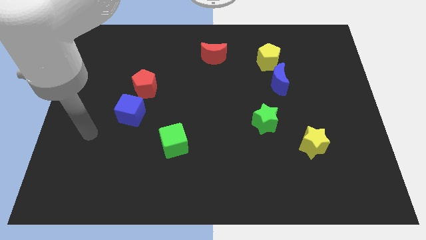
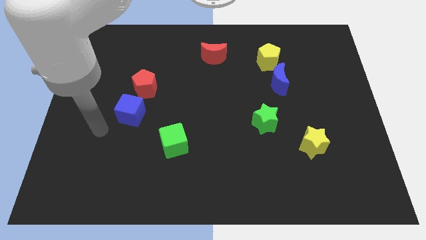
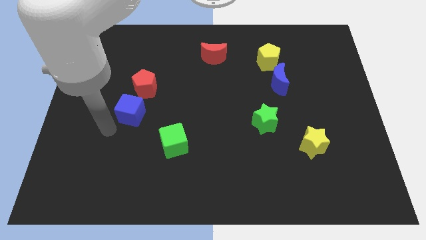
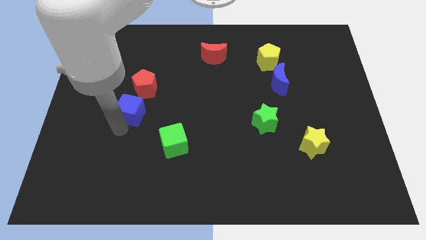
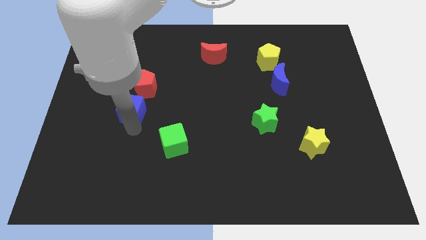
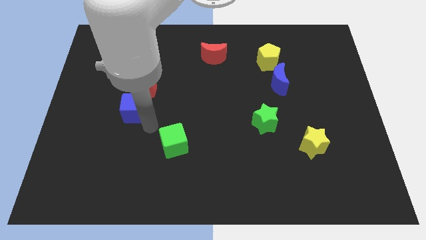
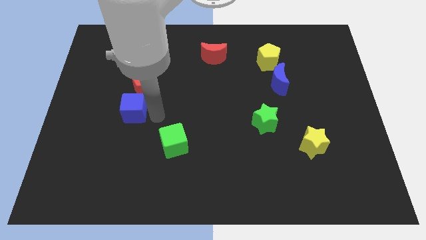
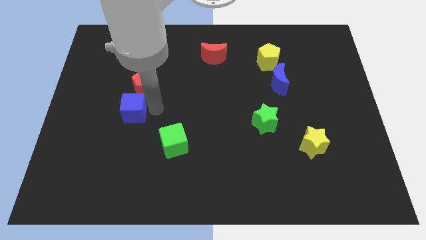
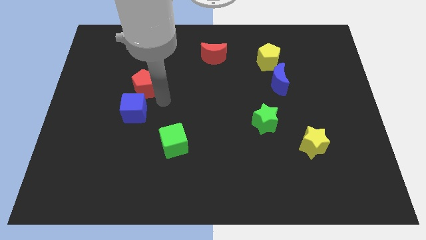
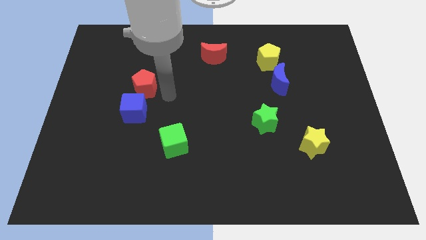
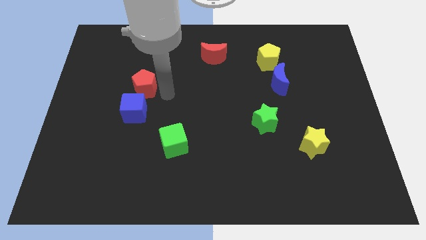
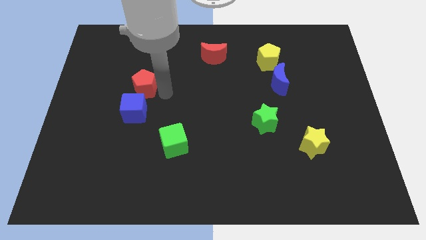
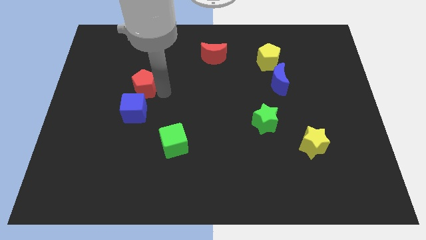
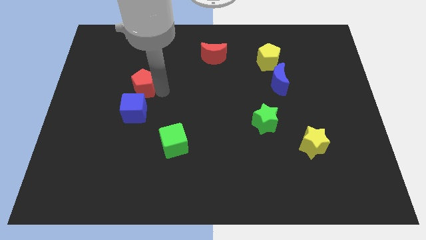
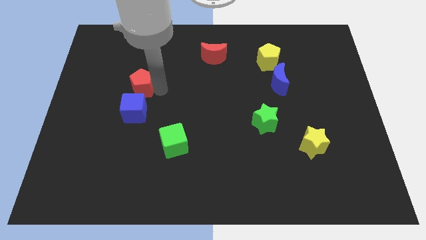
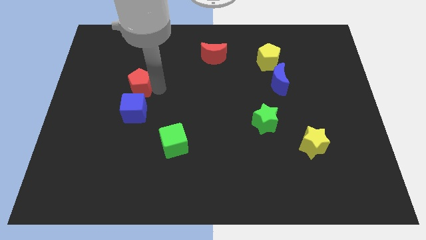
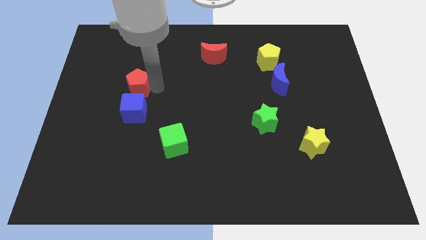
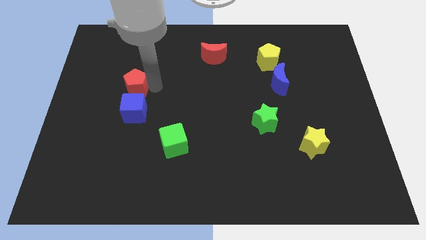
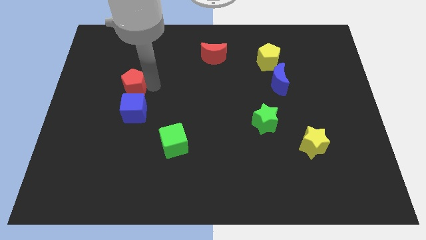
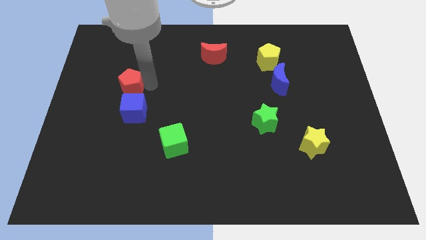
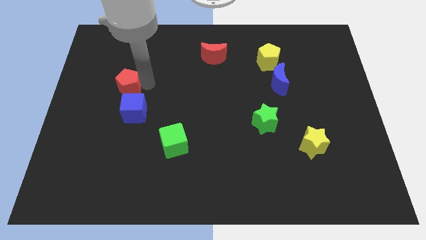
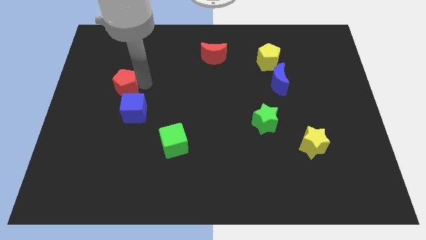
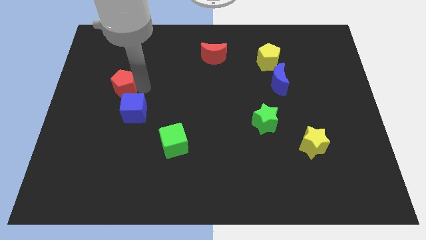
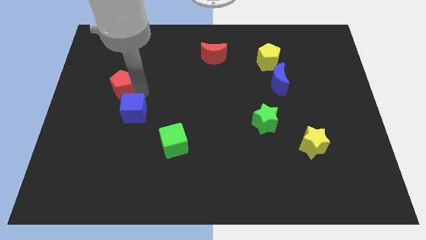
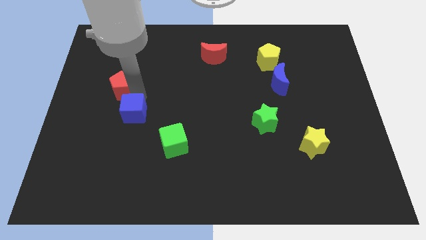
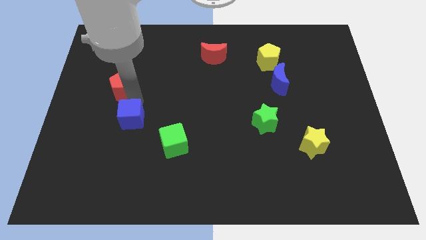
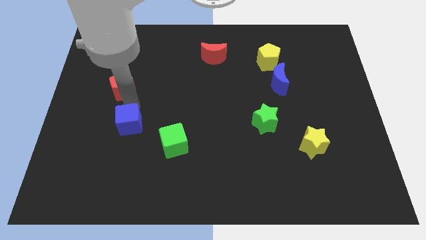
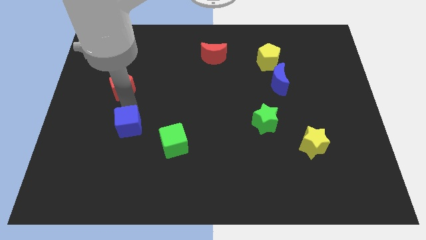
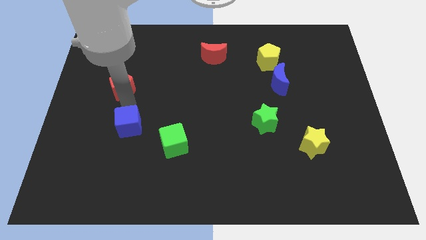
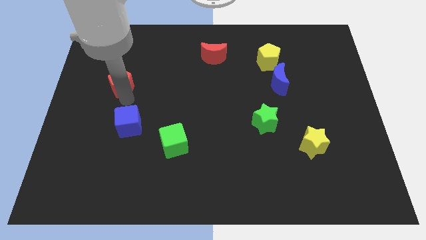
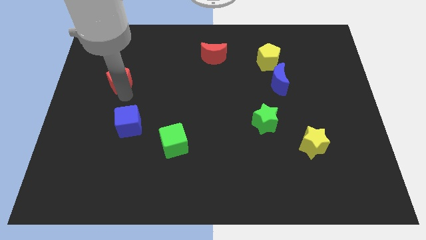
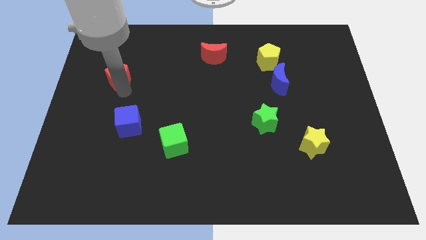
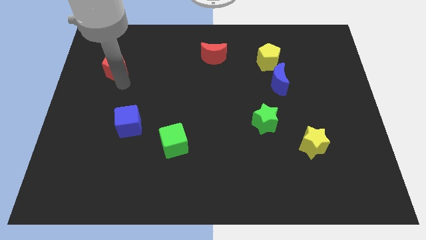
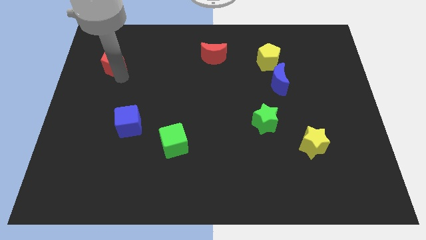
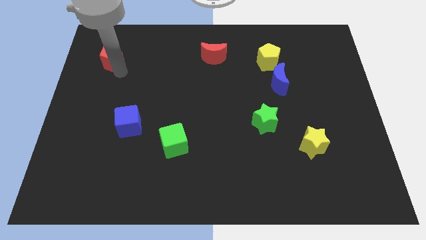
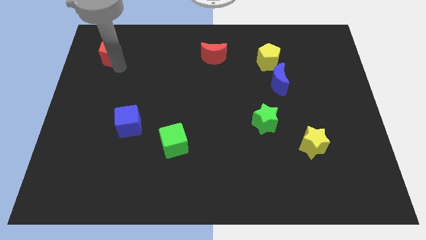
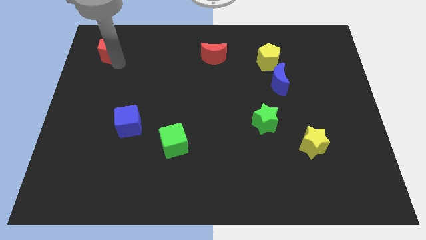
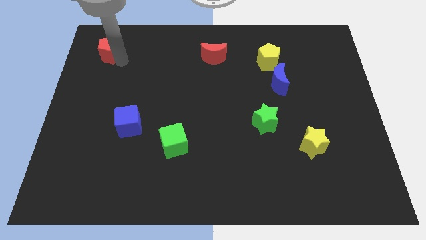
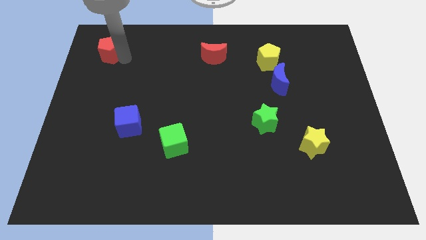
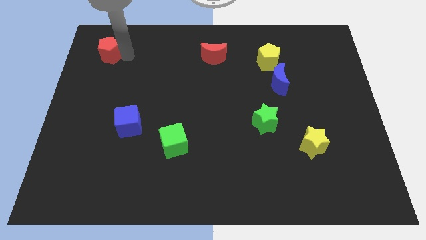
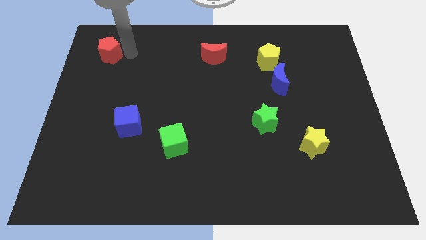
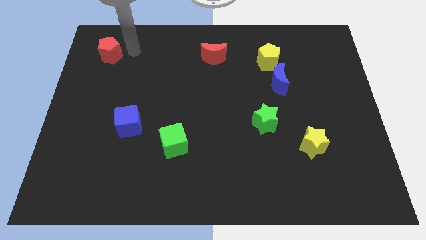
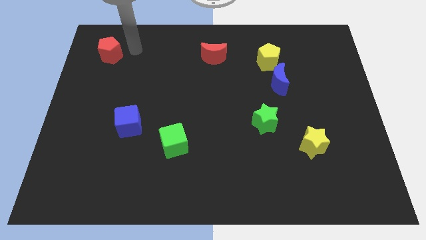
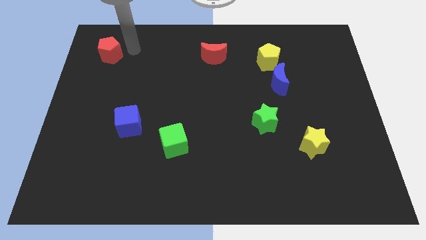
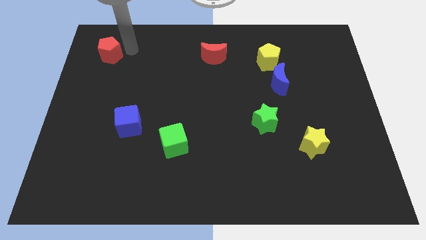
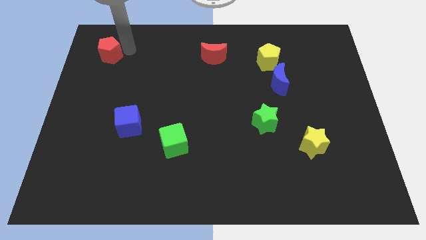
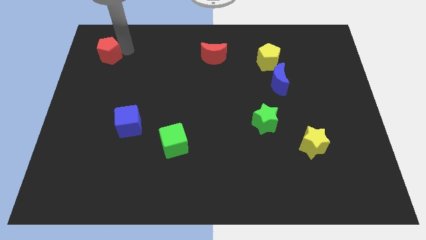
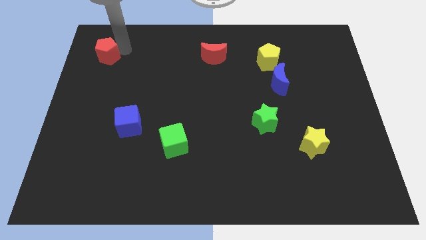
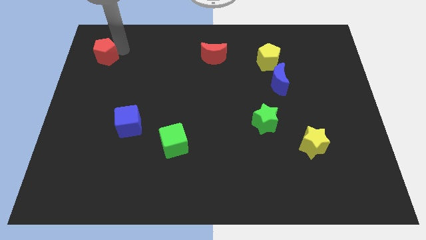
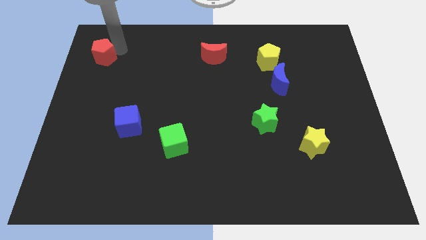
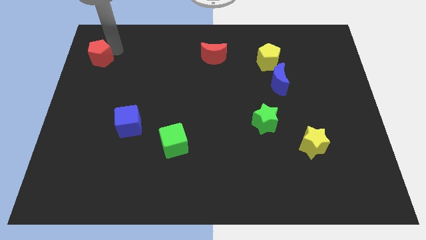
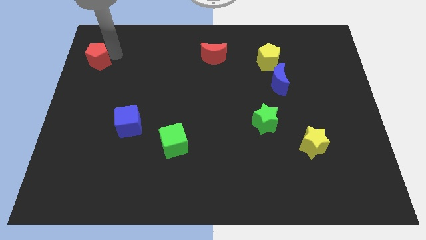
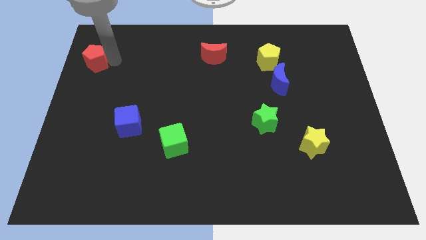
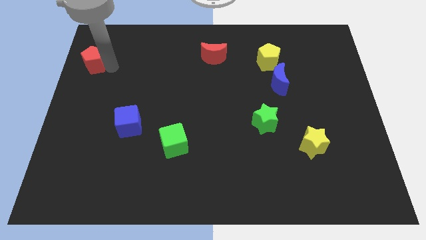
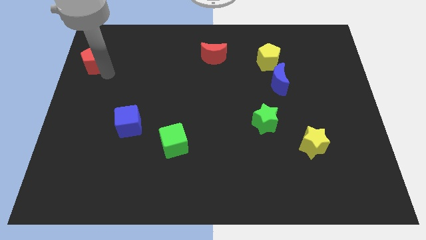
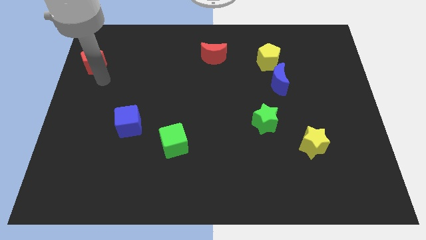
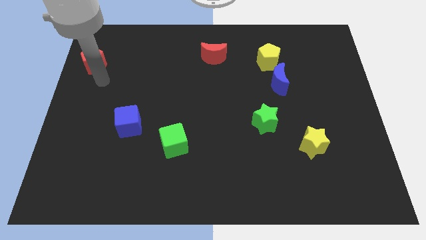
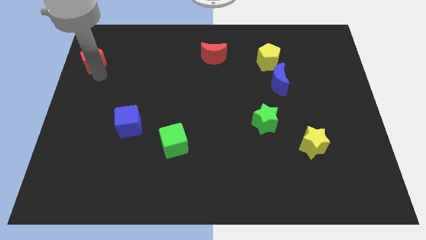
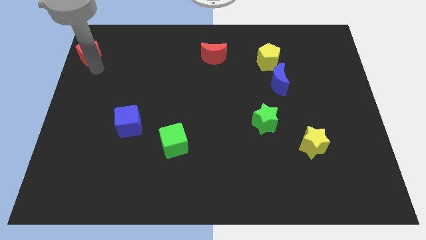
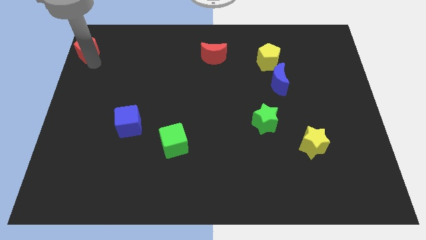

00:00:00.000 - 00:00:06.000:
move the red pentagon to the top left

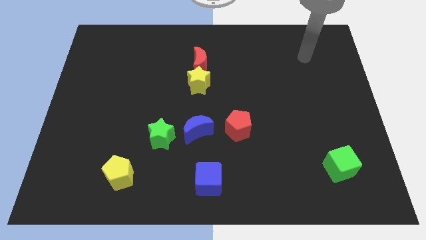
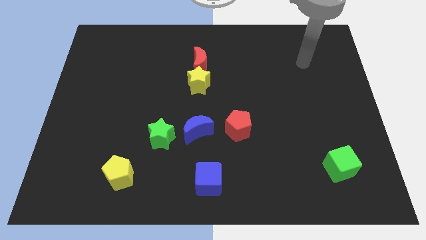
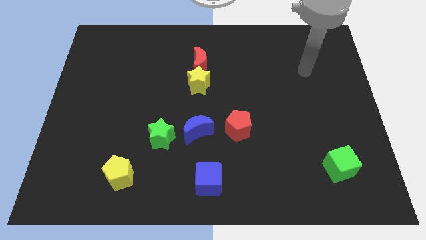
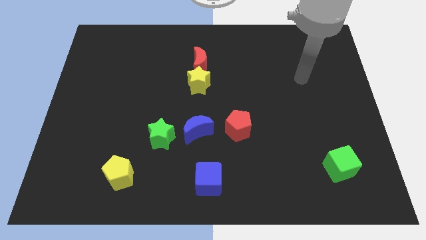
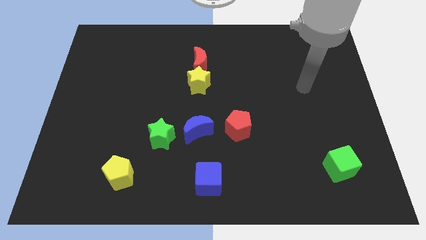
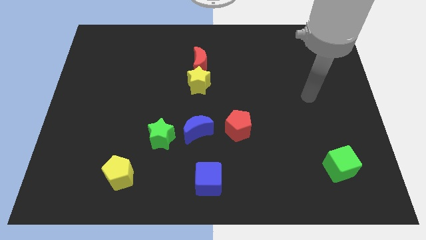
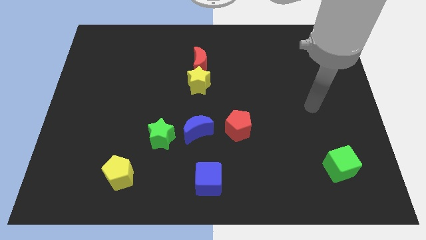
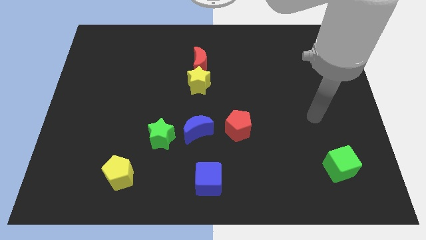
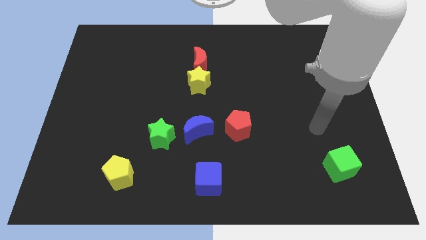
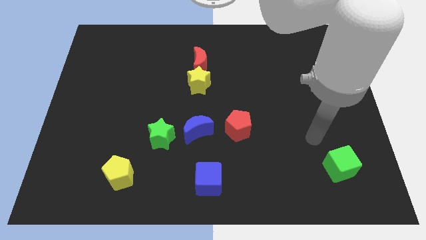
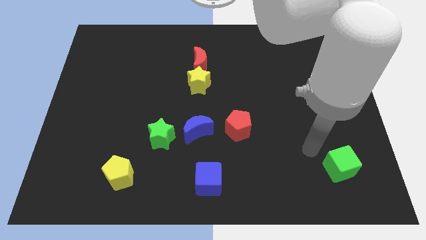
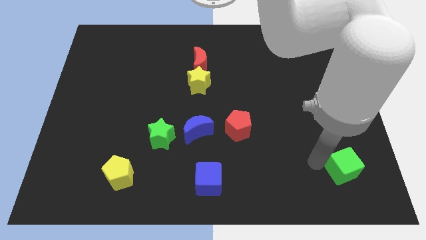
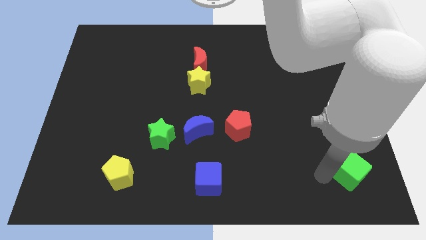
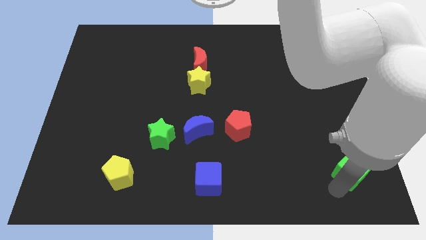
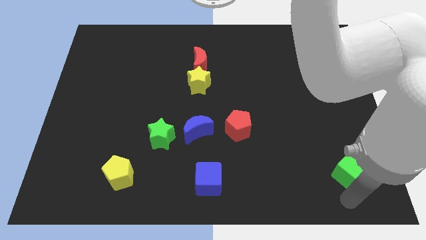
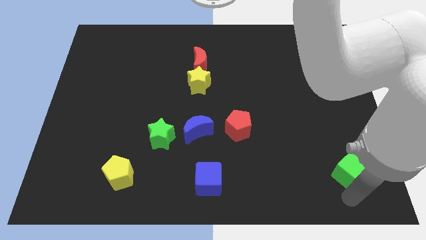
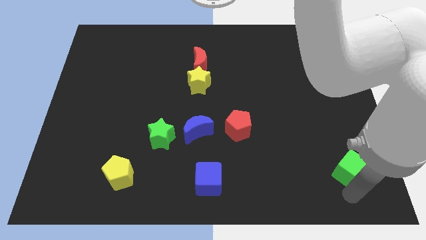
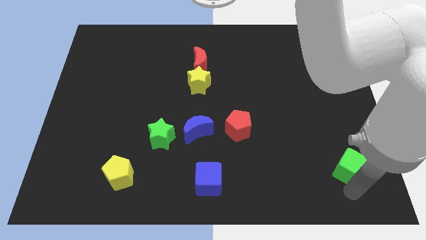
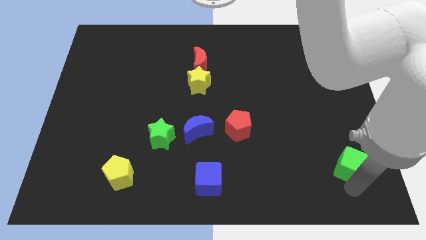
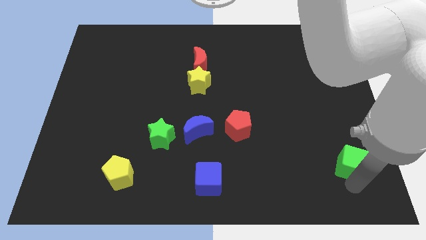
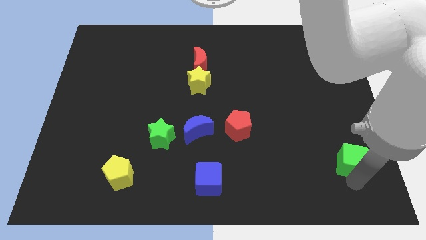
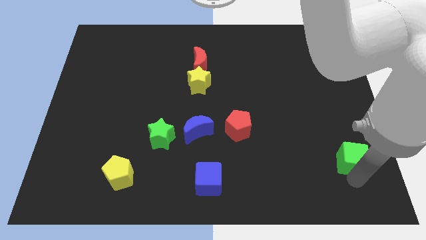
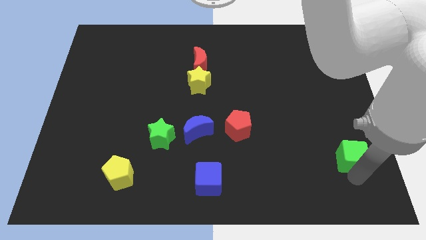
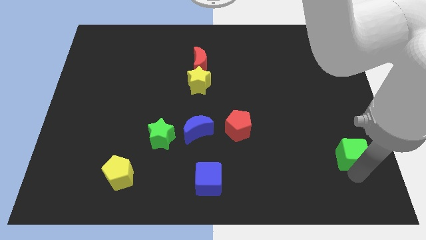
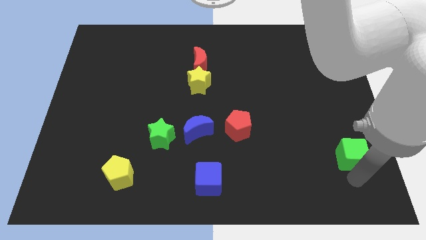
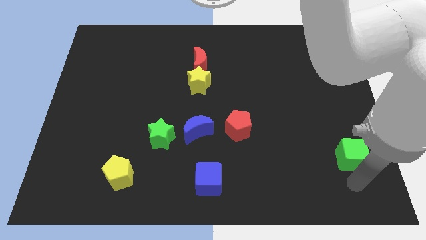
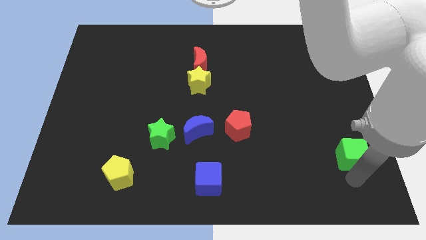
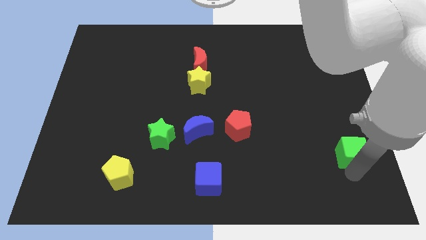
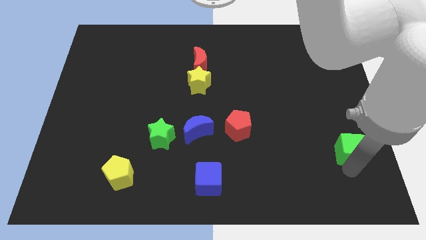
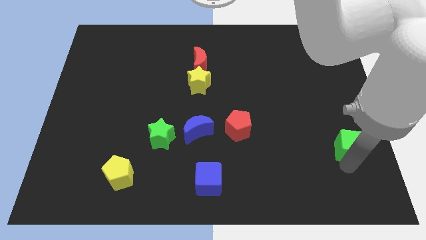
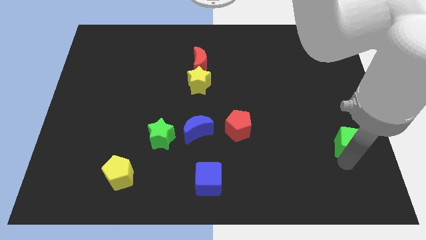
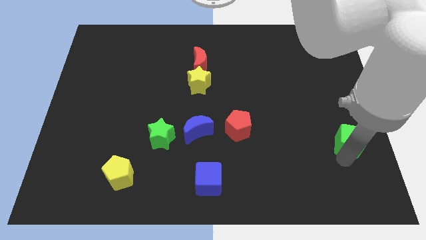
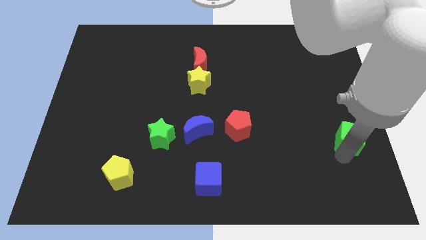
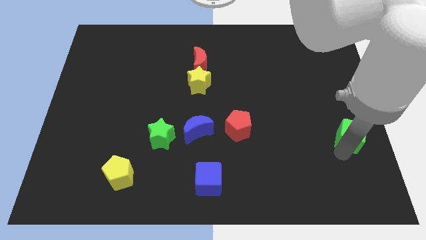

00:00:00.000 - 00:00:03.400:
push the green cube to the right side of the board
